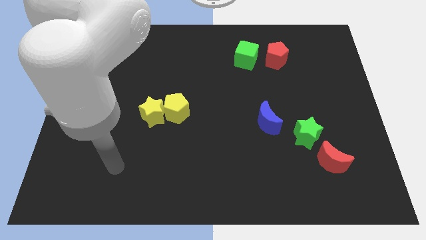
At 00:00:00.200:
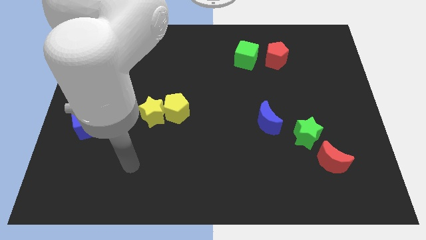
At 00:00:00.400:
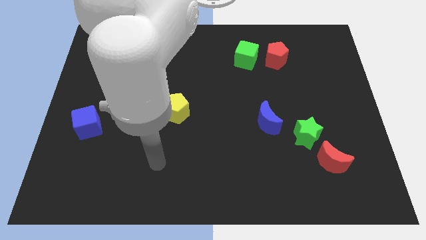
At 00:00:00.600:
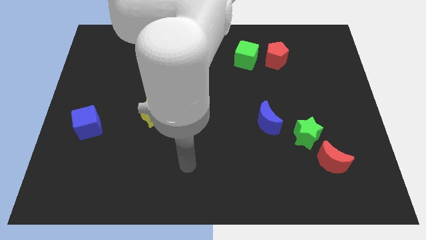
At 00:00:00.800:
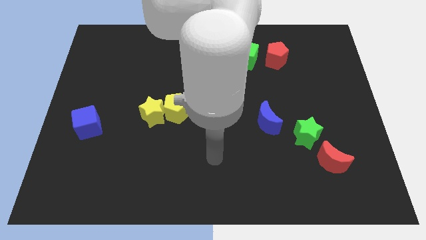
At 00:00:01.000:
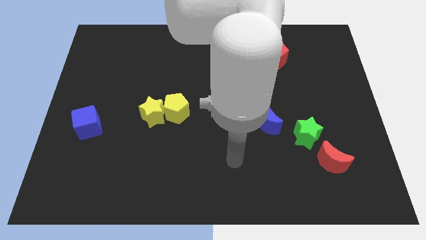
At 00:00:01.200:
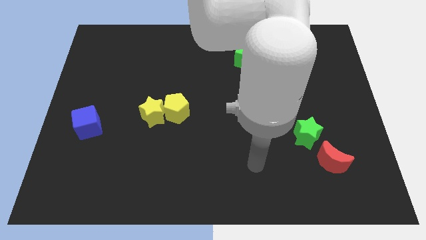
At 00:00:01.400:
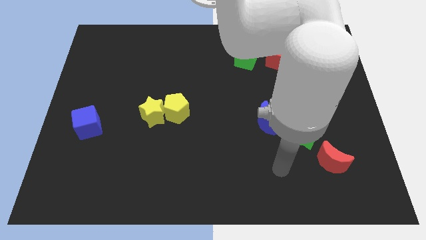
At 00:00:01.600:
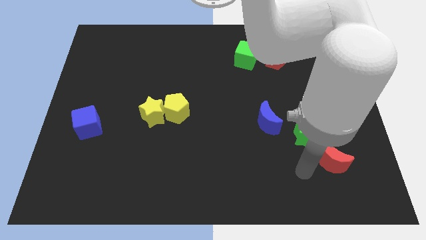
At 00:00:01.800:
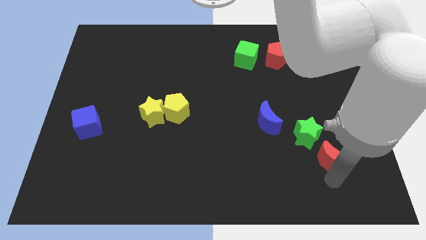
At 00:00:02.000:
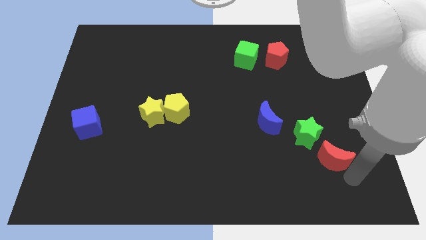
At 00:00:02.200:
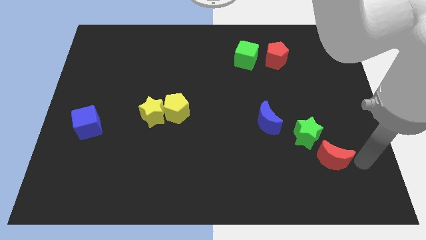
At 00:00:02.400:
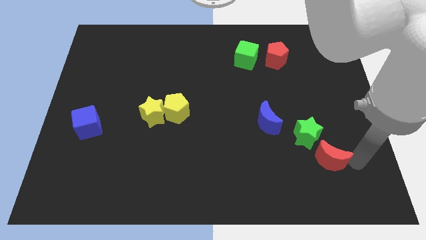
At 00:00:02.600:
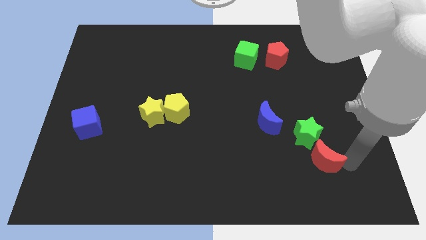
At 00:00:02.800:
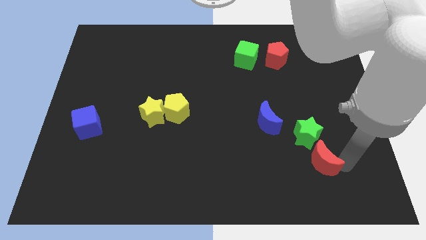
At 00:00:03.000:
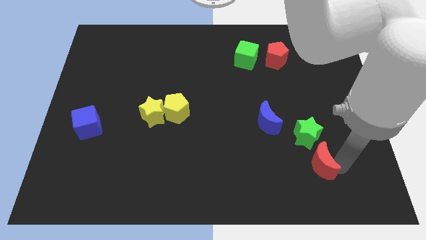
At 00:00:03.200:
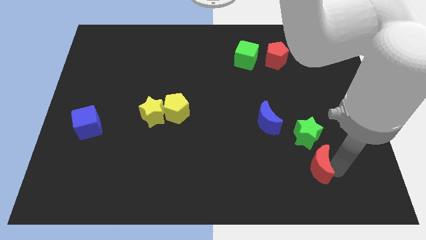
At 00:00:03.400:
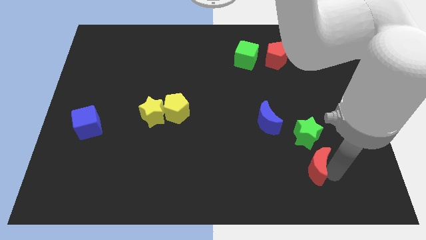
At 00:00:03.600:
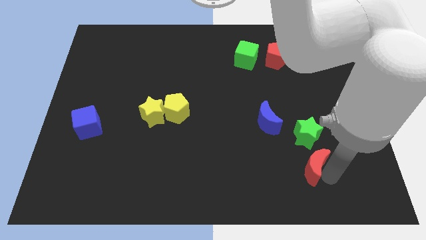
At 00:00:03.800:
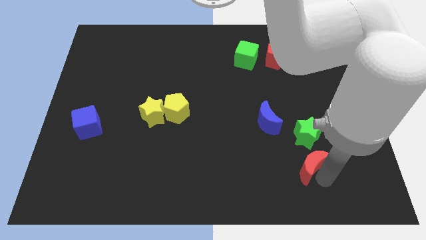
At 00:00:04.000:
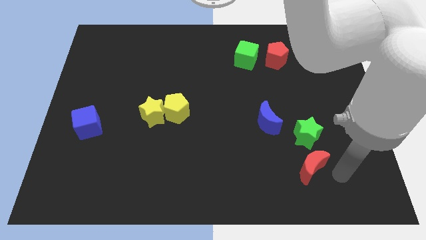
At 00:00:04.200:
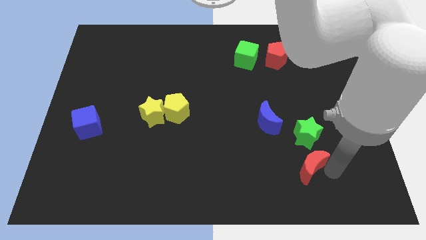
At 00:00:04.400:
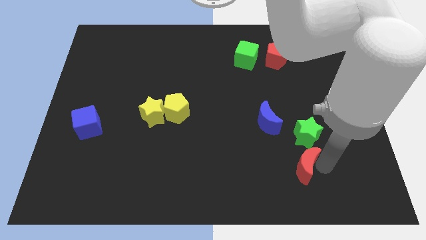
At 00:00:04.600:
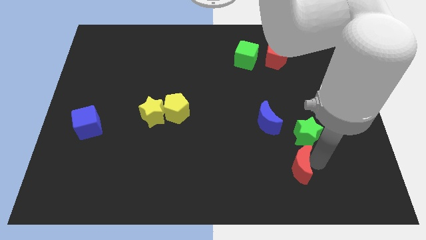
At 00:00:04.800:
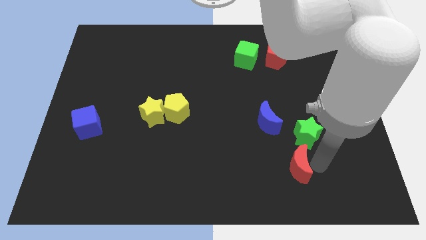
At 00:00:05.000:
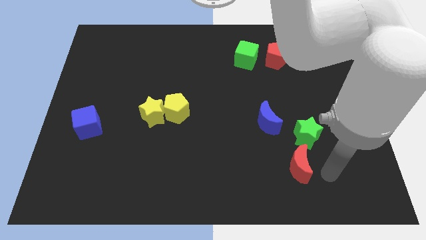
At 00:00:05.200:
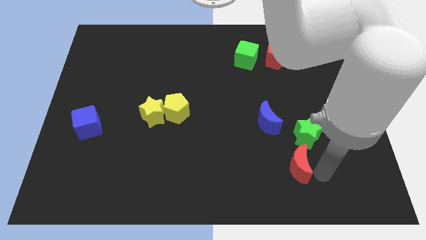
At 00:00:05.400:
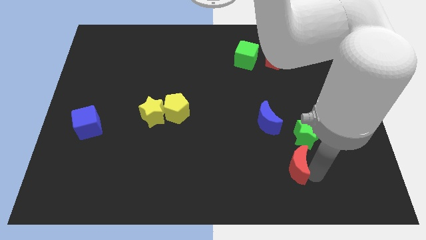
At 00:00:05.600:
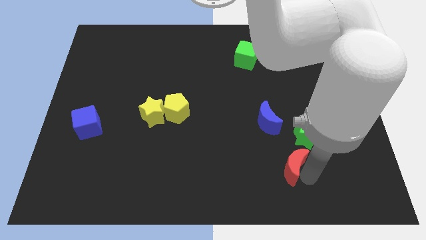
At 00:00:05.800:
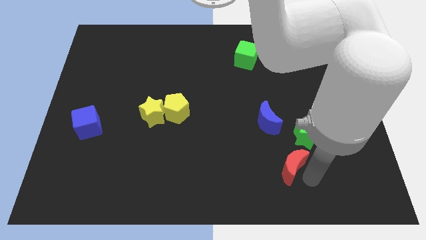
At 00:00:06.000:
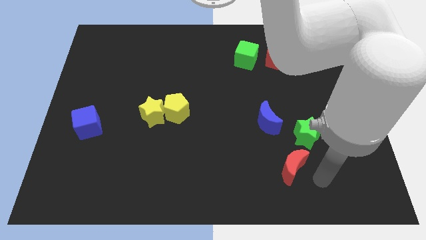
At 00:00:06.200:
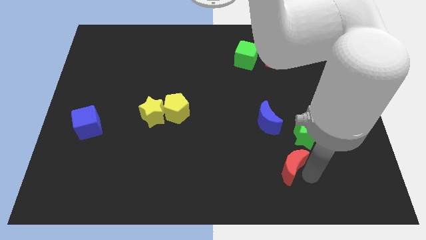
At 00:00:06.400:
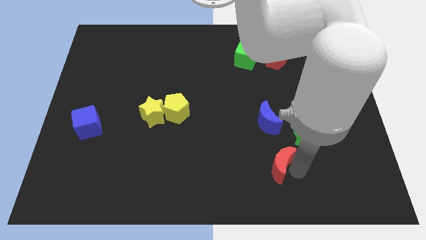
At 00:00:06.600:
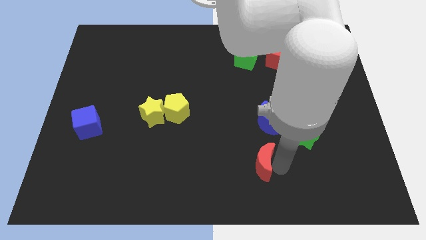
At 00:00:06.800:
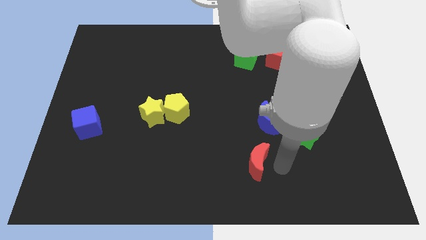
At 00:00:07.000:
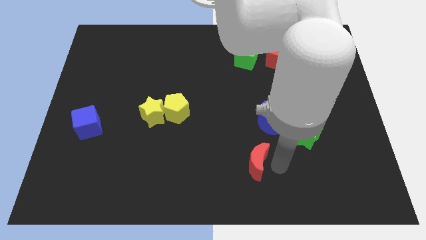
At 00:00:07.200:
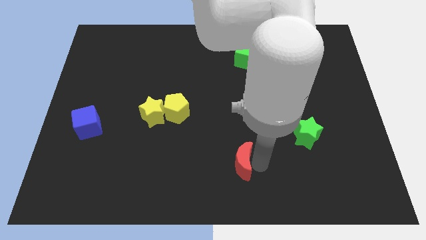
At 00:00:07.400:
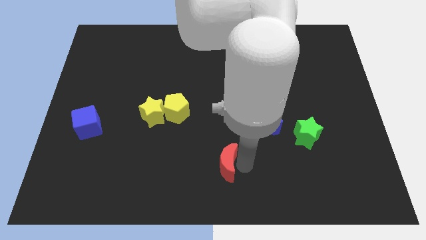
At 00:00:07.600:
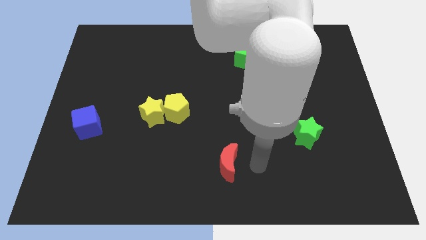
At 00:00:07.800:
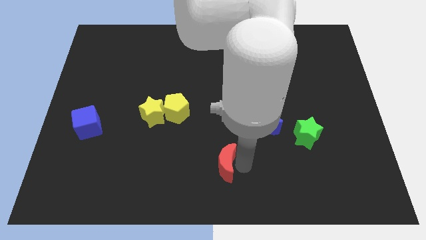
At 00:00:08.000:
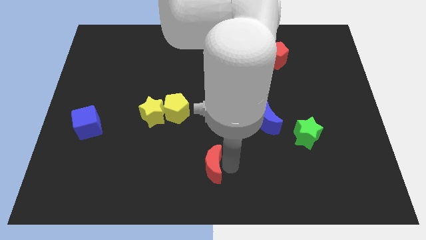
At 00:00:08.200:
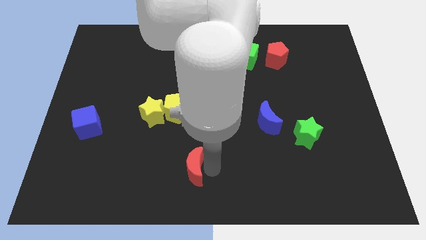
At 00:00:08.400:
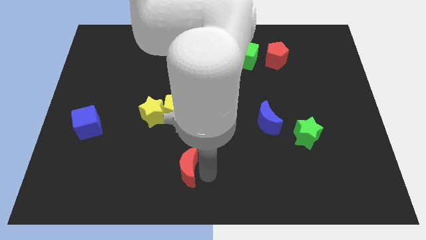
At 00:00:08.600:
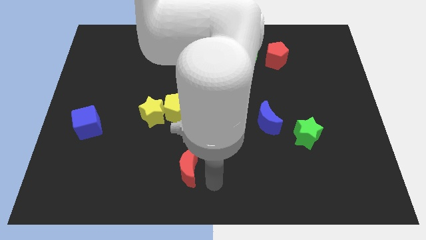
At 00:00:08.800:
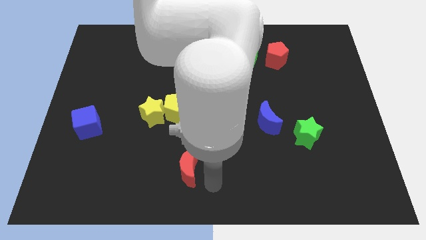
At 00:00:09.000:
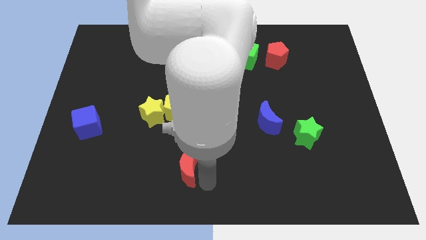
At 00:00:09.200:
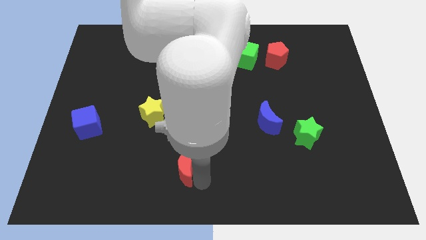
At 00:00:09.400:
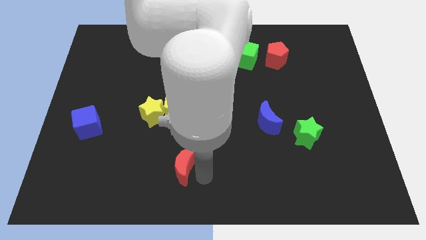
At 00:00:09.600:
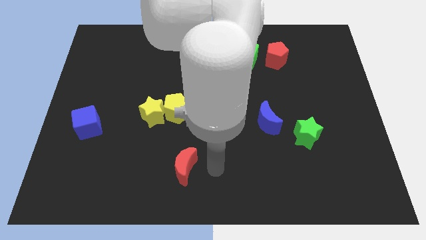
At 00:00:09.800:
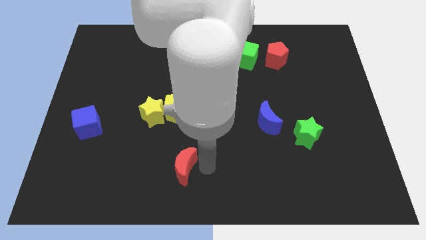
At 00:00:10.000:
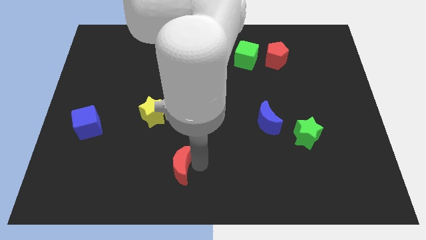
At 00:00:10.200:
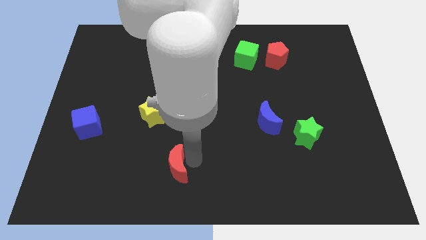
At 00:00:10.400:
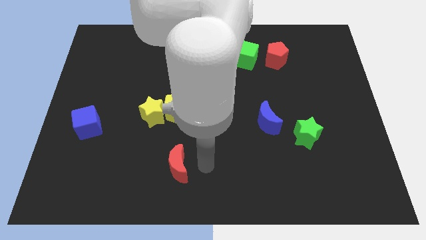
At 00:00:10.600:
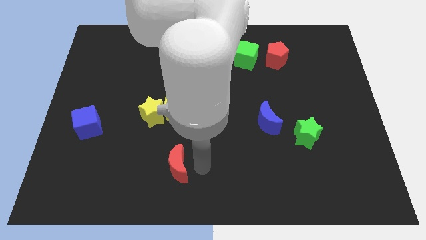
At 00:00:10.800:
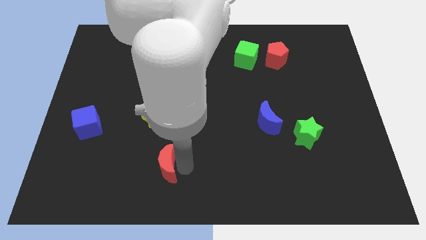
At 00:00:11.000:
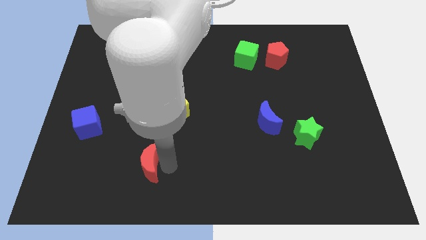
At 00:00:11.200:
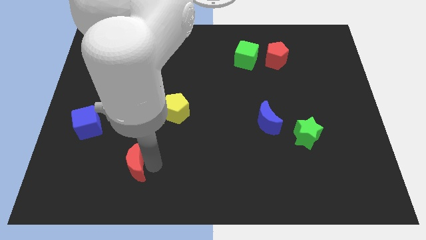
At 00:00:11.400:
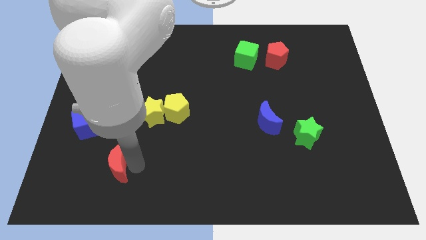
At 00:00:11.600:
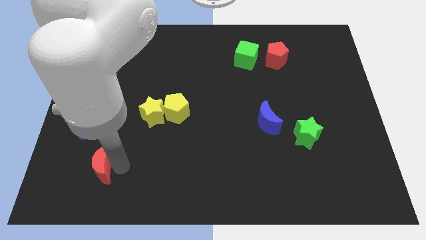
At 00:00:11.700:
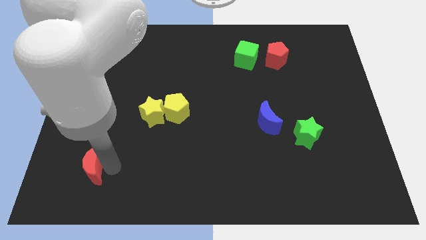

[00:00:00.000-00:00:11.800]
move the red moon below the blue cube

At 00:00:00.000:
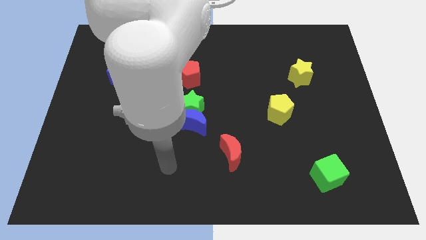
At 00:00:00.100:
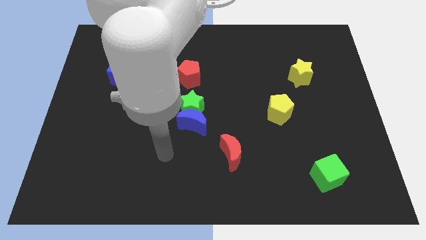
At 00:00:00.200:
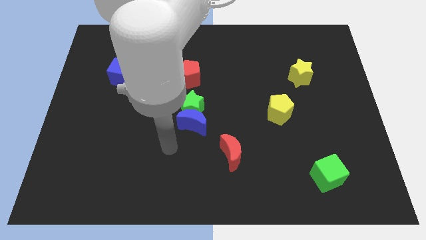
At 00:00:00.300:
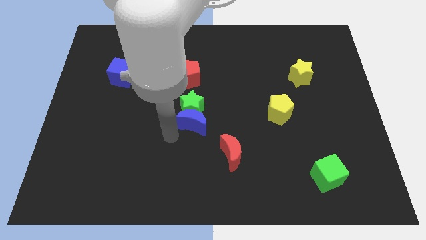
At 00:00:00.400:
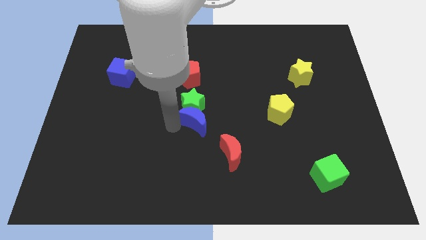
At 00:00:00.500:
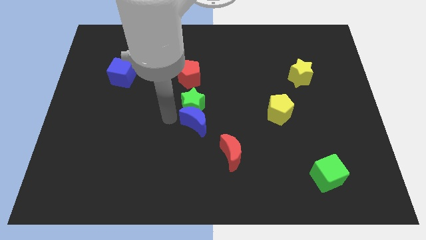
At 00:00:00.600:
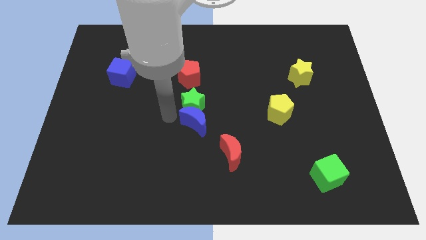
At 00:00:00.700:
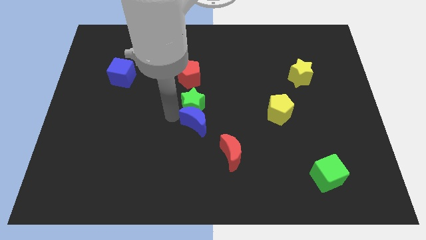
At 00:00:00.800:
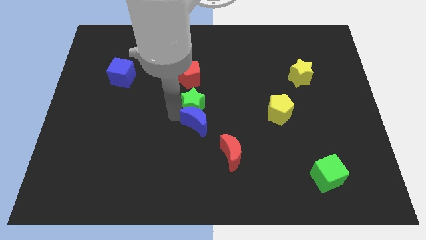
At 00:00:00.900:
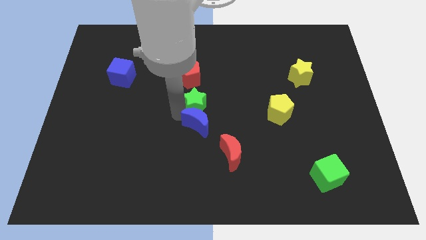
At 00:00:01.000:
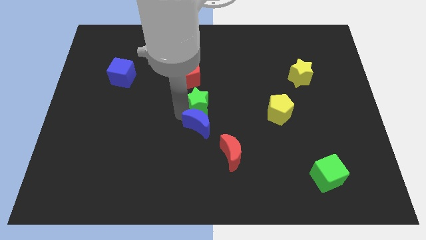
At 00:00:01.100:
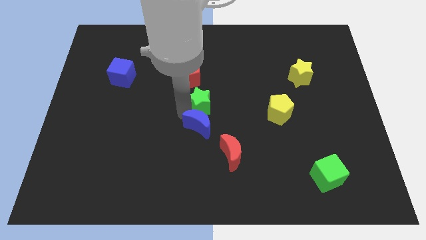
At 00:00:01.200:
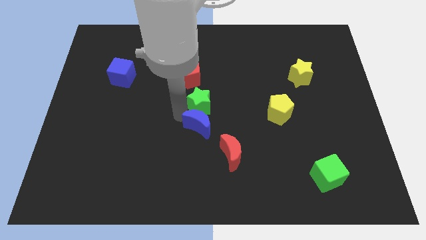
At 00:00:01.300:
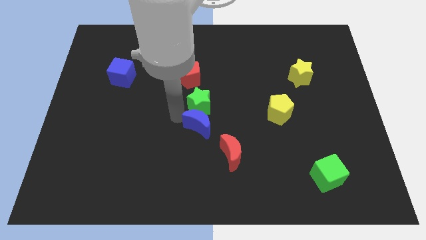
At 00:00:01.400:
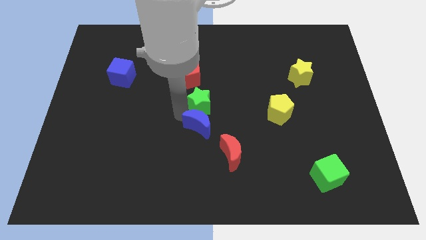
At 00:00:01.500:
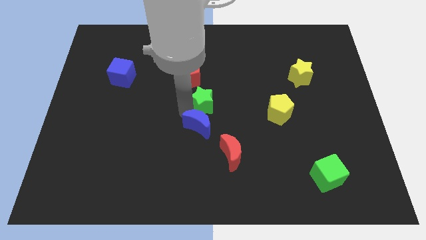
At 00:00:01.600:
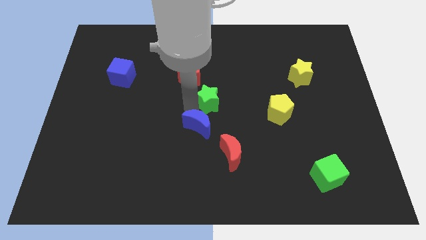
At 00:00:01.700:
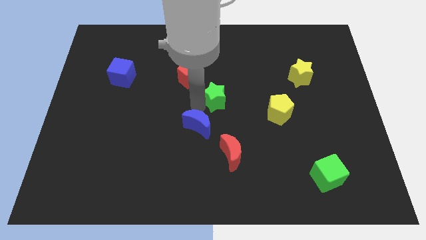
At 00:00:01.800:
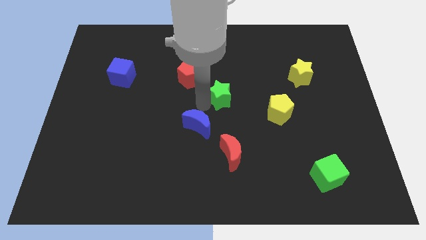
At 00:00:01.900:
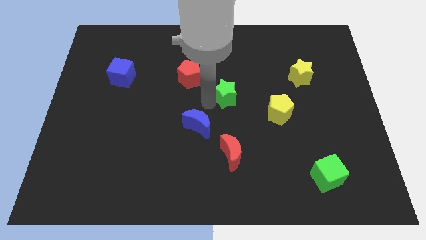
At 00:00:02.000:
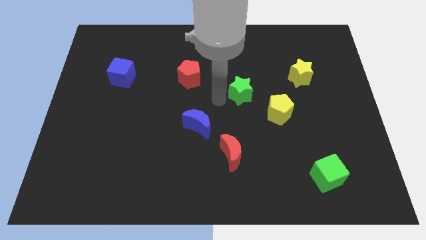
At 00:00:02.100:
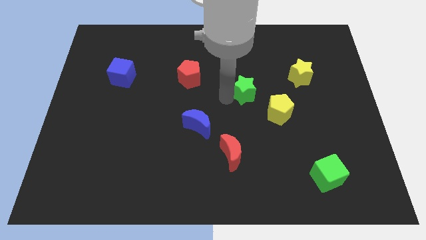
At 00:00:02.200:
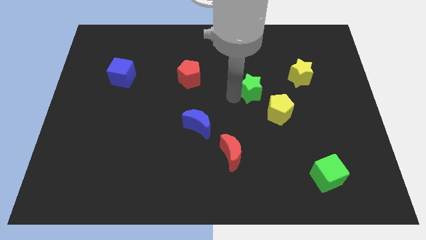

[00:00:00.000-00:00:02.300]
put the green star left of the yellow star
